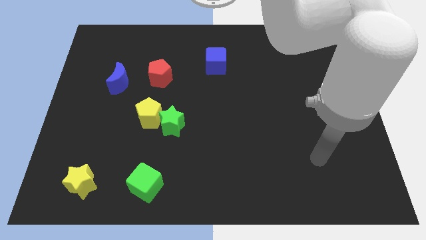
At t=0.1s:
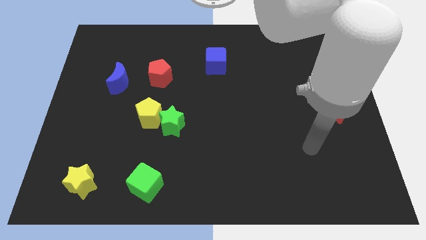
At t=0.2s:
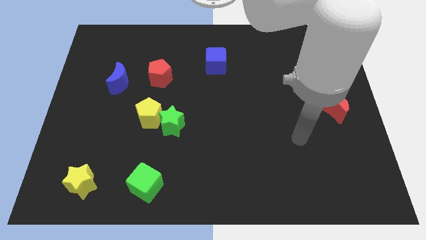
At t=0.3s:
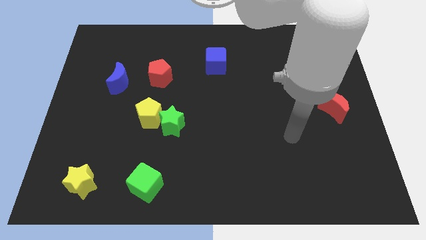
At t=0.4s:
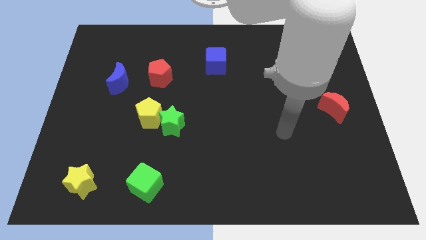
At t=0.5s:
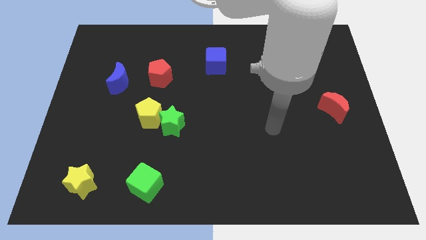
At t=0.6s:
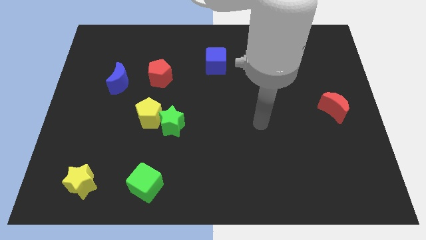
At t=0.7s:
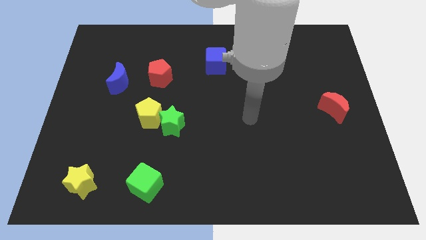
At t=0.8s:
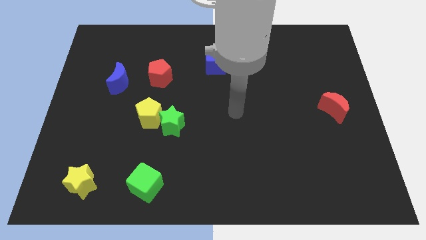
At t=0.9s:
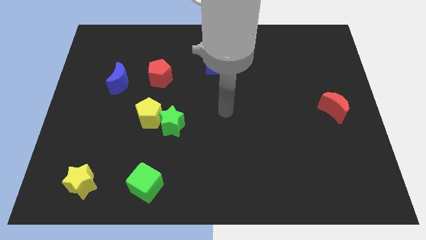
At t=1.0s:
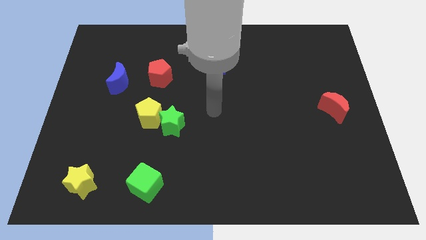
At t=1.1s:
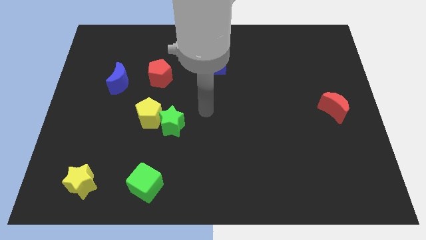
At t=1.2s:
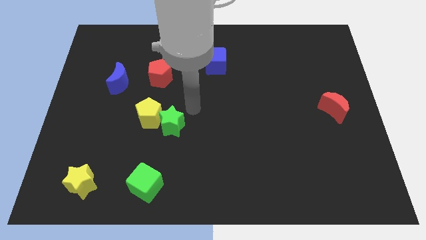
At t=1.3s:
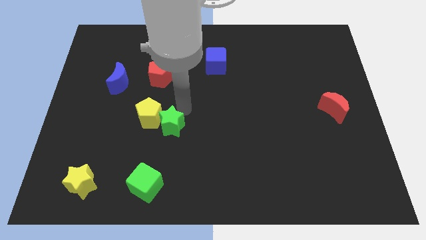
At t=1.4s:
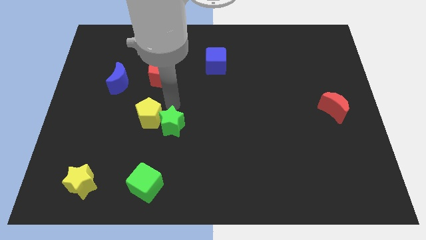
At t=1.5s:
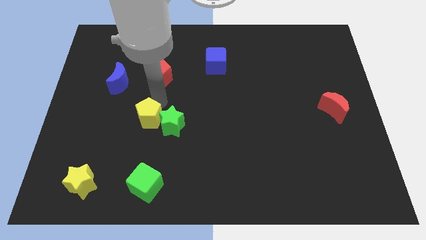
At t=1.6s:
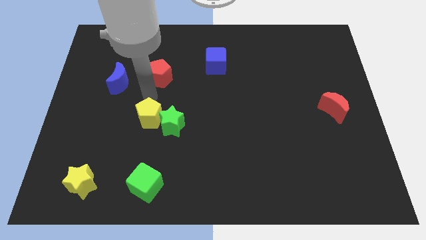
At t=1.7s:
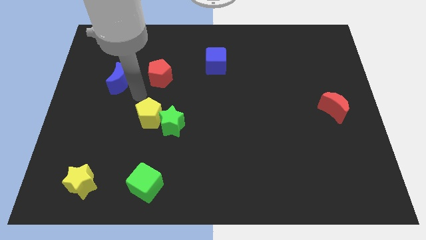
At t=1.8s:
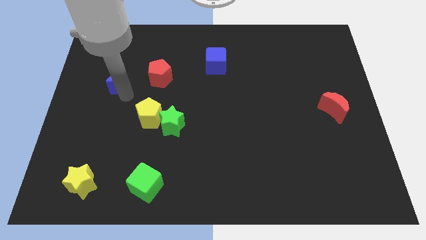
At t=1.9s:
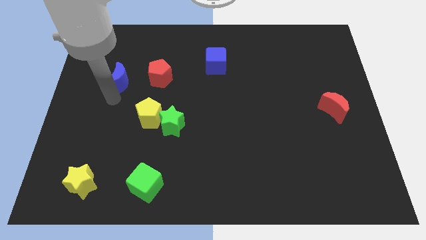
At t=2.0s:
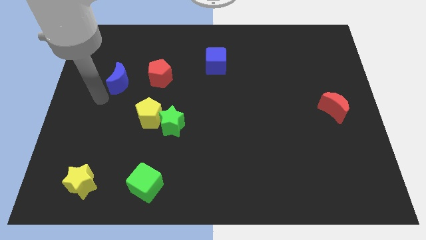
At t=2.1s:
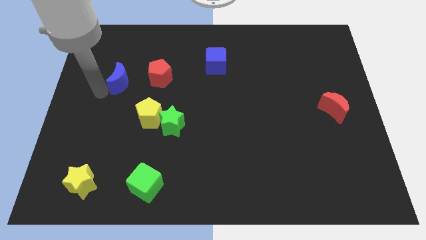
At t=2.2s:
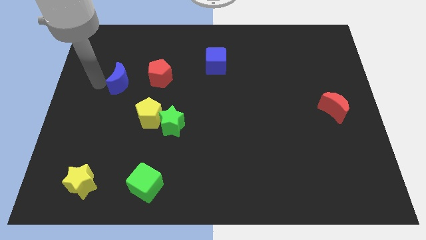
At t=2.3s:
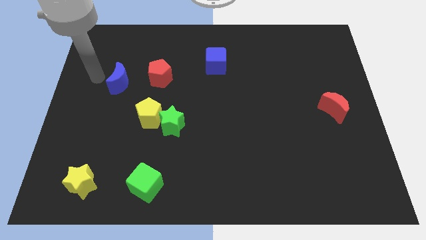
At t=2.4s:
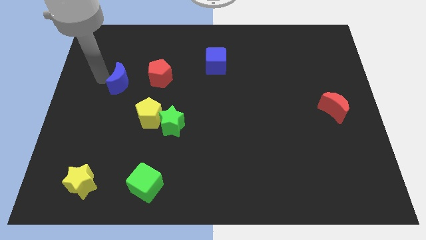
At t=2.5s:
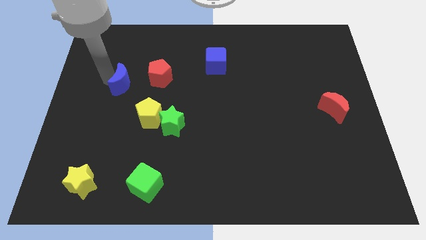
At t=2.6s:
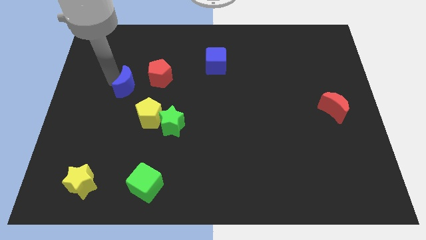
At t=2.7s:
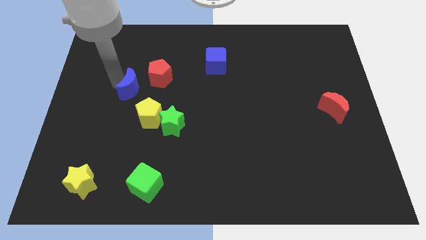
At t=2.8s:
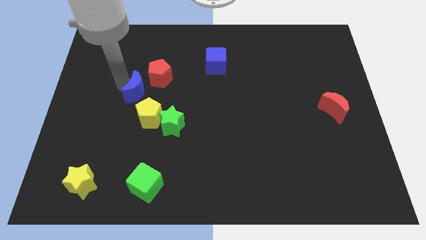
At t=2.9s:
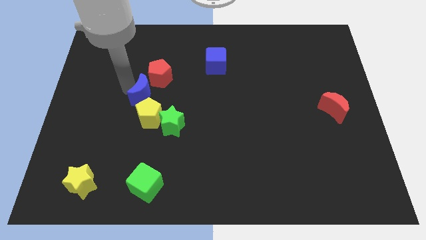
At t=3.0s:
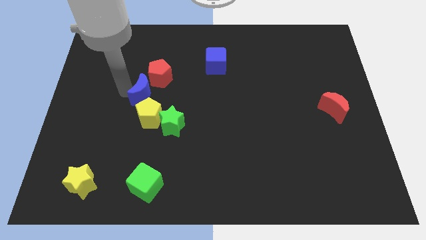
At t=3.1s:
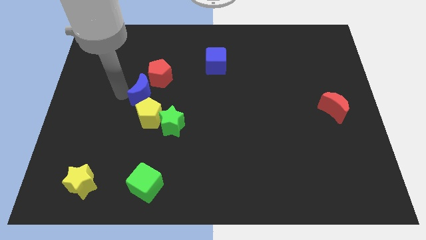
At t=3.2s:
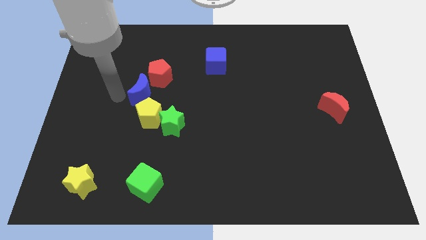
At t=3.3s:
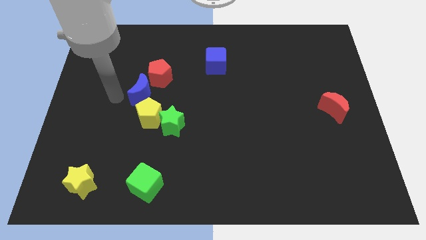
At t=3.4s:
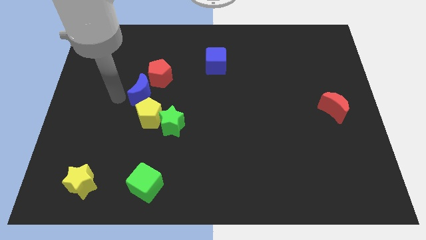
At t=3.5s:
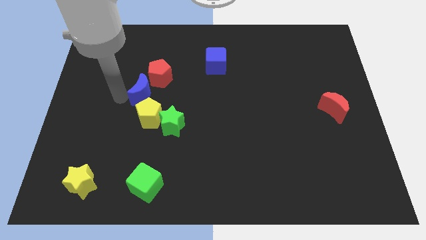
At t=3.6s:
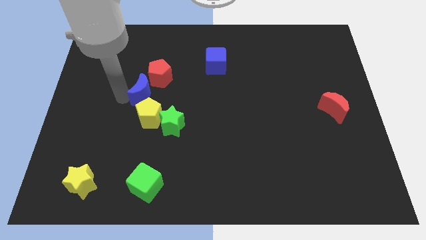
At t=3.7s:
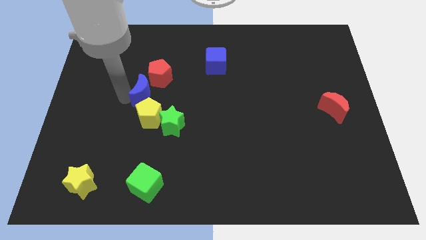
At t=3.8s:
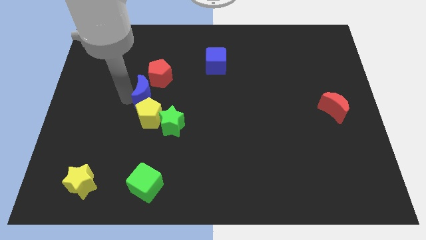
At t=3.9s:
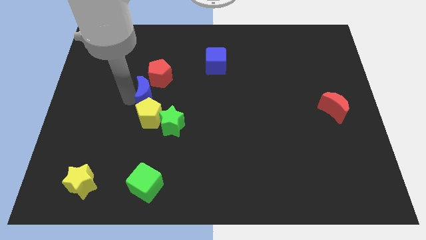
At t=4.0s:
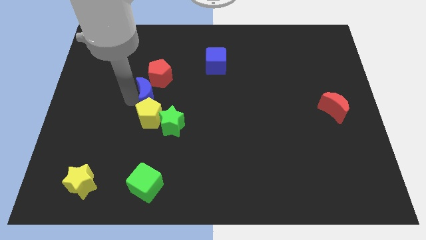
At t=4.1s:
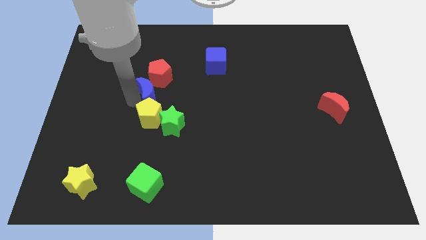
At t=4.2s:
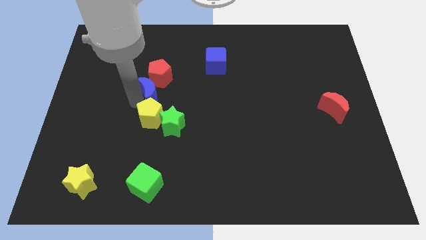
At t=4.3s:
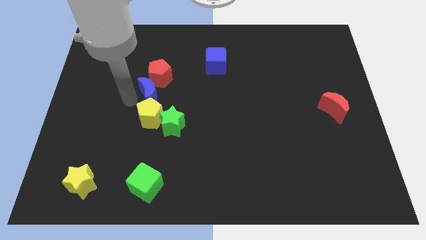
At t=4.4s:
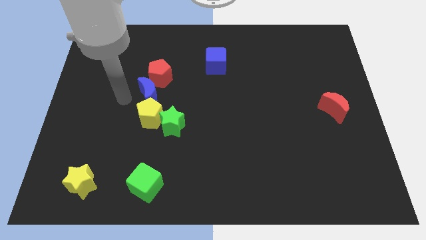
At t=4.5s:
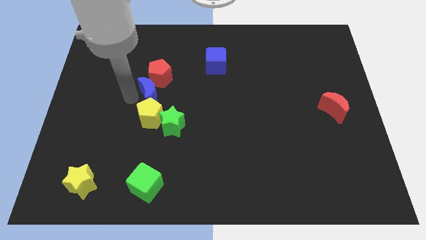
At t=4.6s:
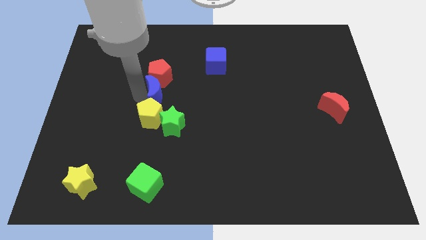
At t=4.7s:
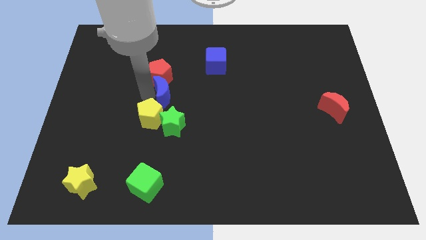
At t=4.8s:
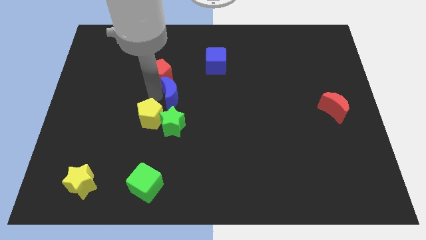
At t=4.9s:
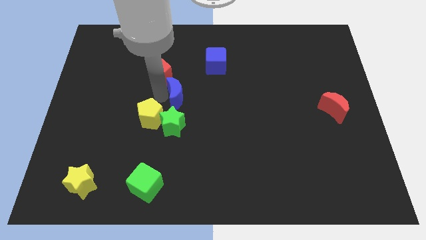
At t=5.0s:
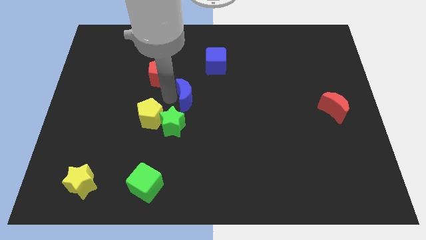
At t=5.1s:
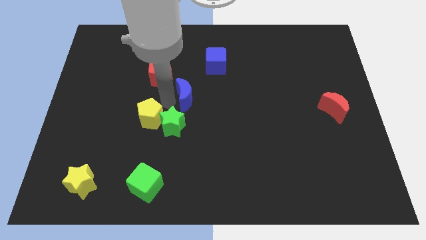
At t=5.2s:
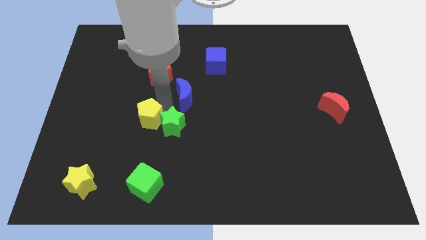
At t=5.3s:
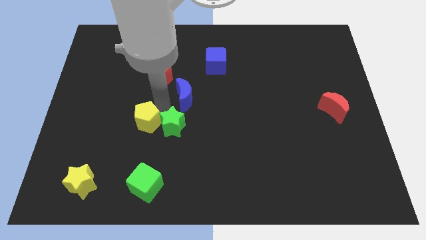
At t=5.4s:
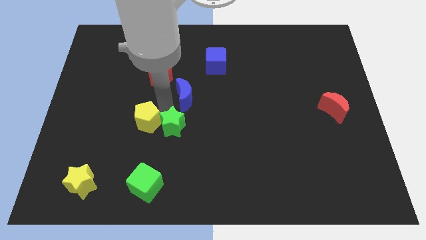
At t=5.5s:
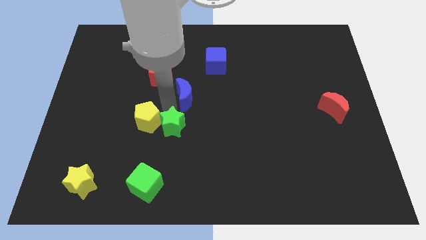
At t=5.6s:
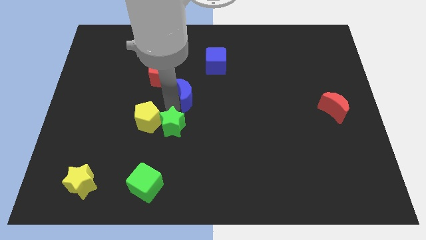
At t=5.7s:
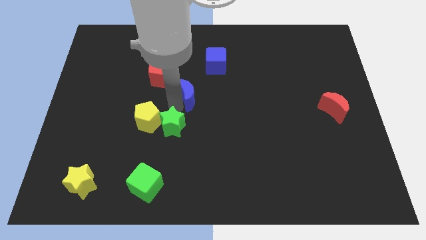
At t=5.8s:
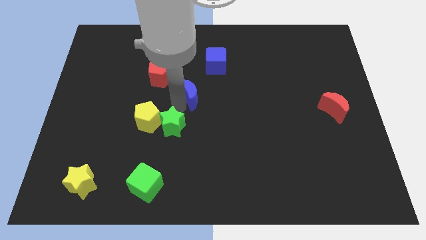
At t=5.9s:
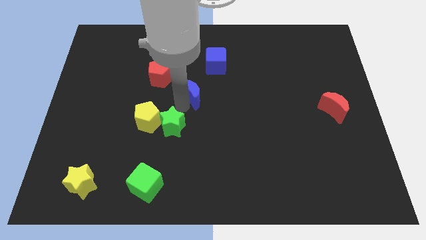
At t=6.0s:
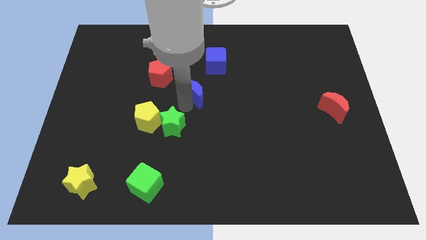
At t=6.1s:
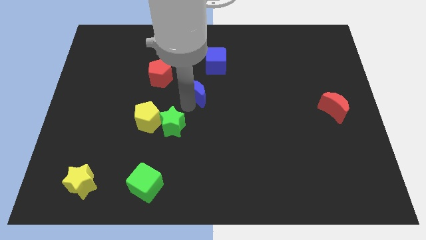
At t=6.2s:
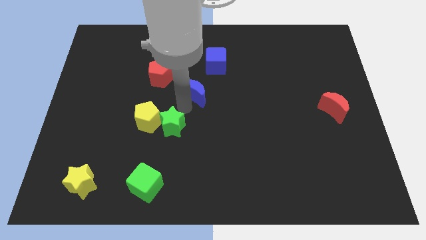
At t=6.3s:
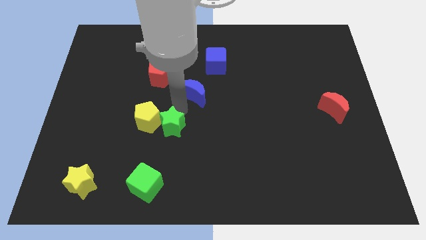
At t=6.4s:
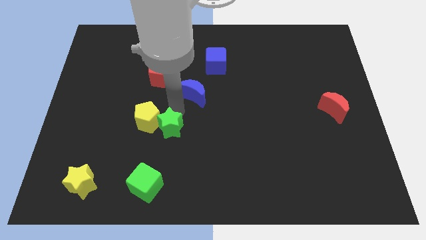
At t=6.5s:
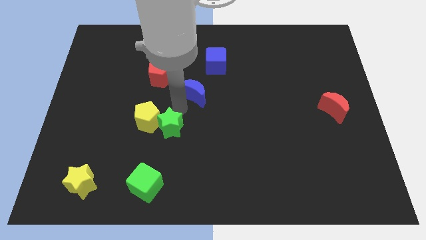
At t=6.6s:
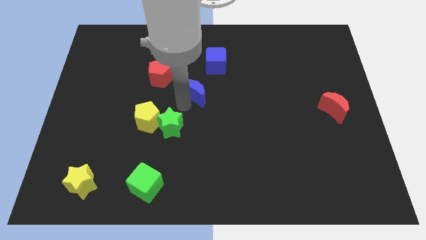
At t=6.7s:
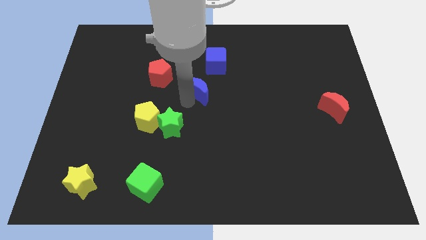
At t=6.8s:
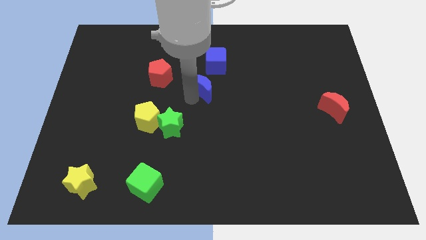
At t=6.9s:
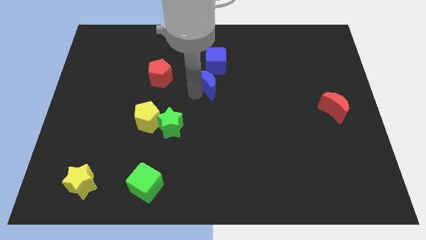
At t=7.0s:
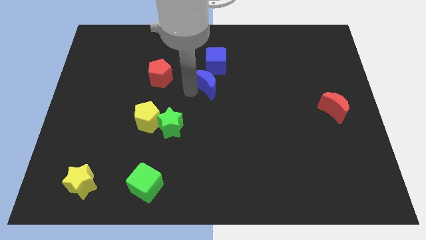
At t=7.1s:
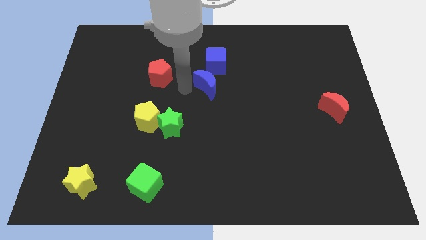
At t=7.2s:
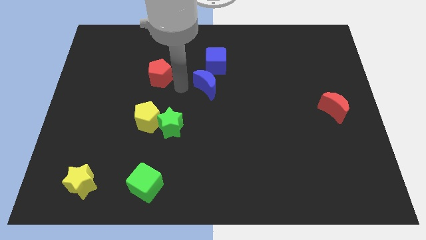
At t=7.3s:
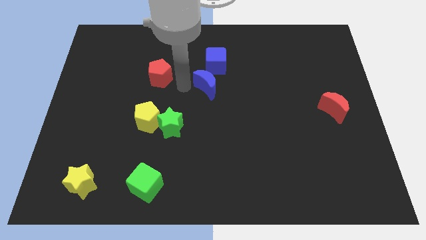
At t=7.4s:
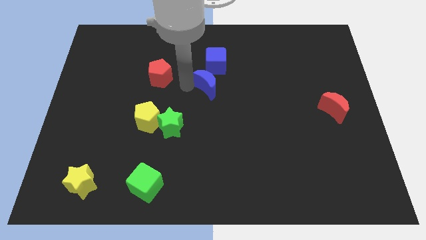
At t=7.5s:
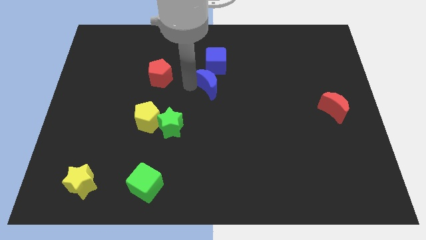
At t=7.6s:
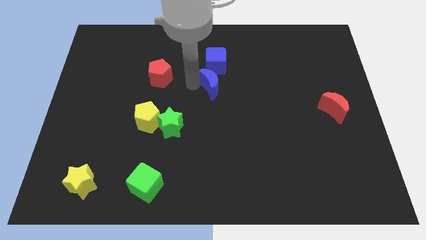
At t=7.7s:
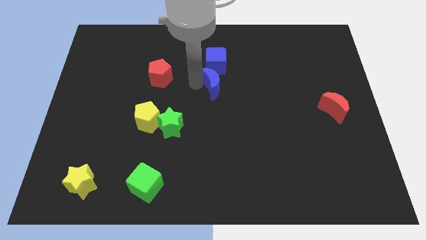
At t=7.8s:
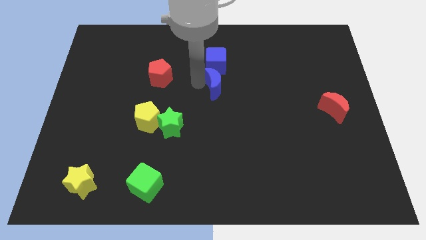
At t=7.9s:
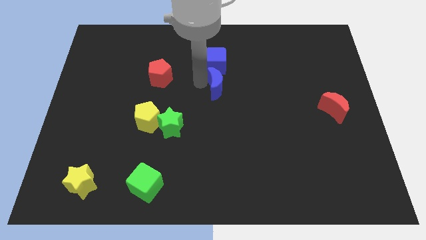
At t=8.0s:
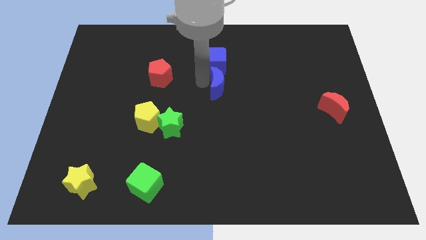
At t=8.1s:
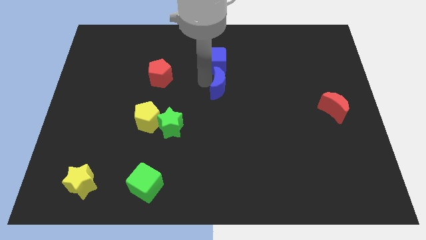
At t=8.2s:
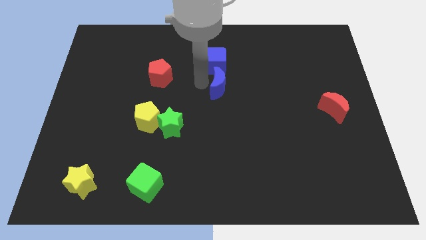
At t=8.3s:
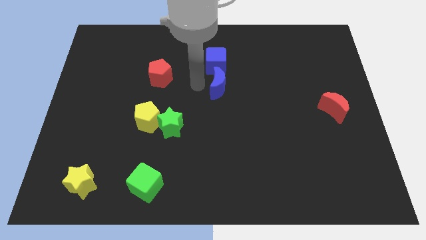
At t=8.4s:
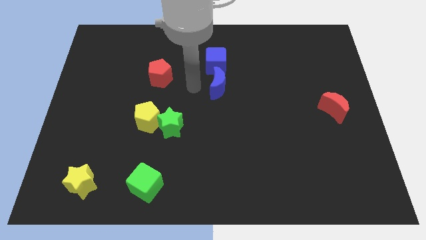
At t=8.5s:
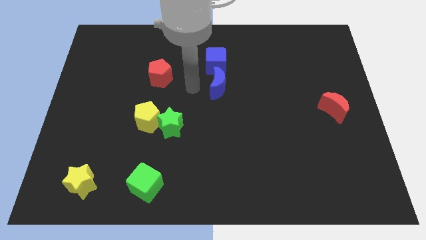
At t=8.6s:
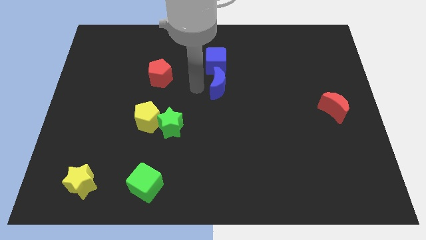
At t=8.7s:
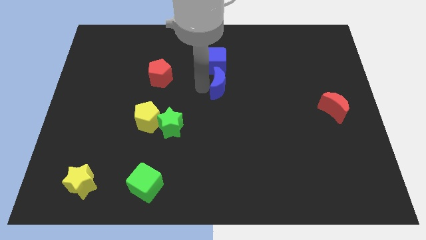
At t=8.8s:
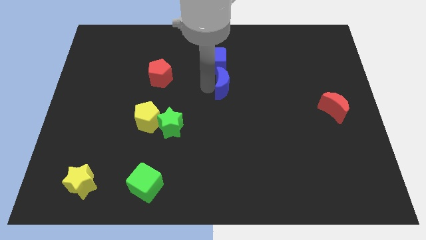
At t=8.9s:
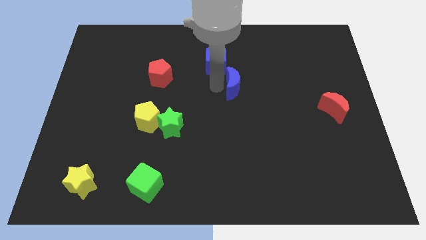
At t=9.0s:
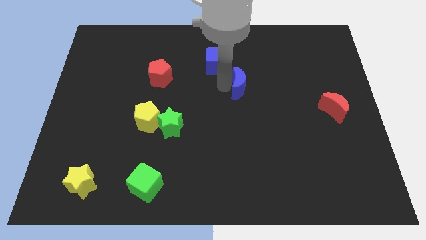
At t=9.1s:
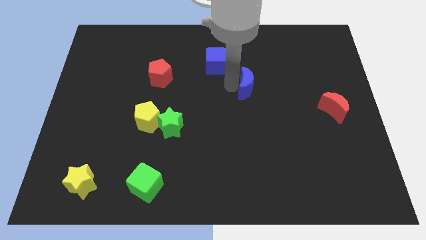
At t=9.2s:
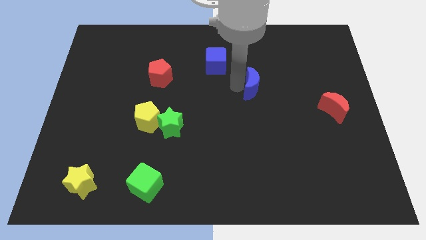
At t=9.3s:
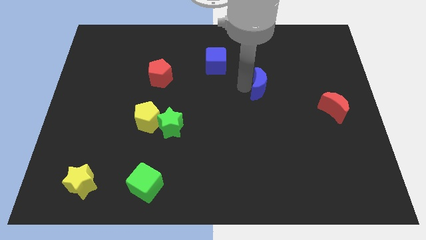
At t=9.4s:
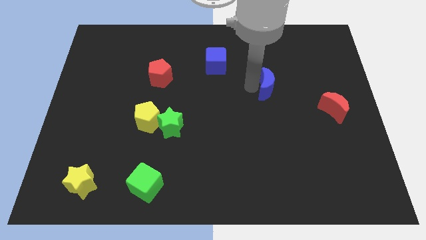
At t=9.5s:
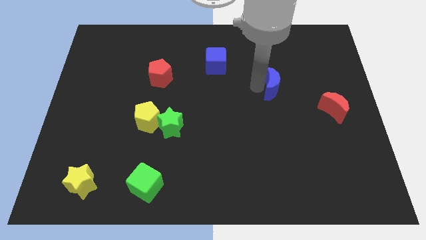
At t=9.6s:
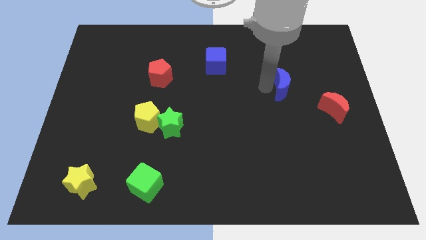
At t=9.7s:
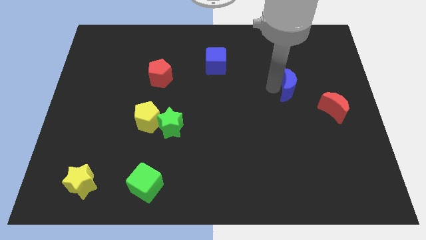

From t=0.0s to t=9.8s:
put the blue moon diagonally up and to the left of the red moon
